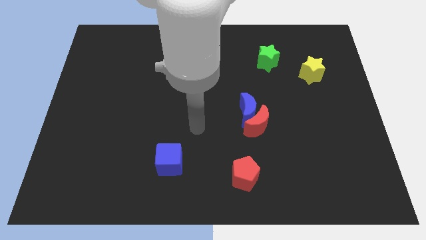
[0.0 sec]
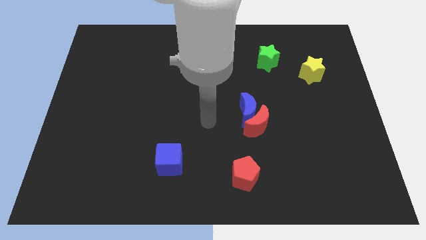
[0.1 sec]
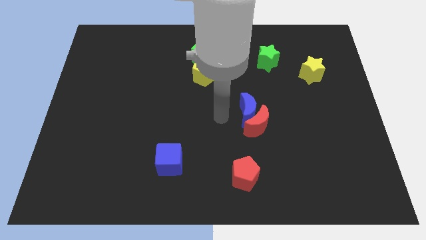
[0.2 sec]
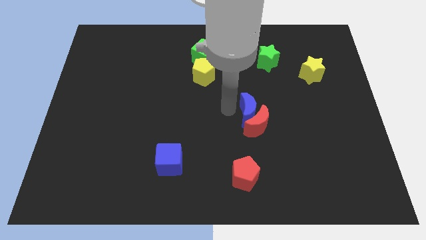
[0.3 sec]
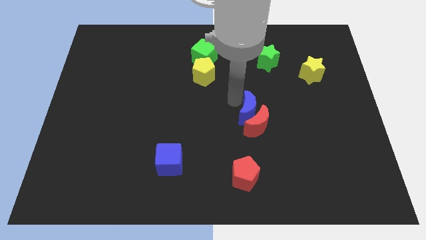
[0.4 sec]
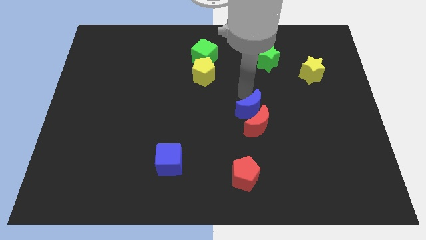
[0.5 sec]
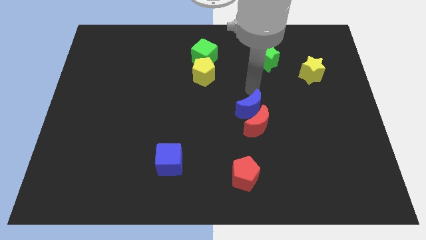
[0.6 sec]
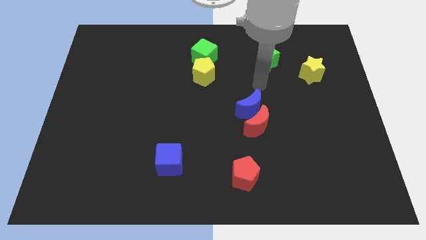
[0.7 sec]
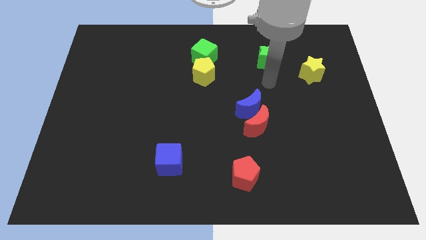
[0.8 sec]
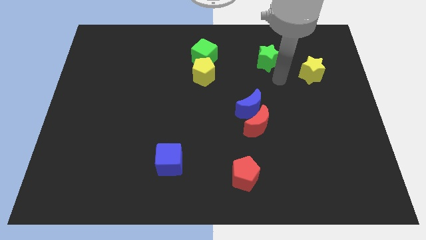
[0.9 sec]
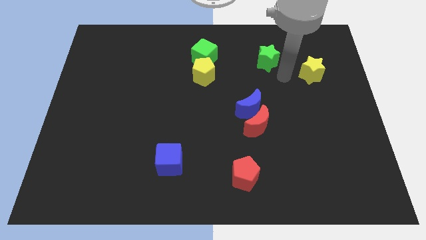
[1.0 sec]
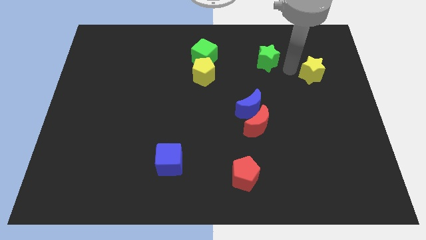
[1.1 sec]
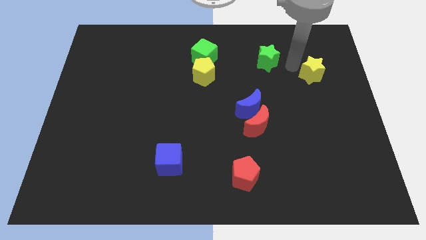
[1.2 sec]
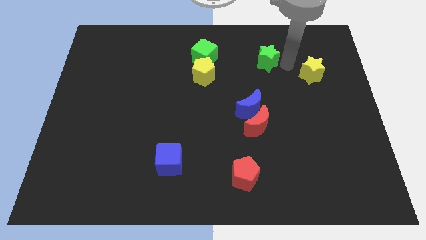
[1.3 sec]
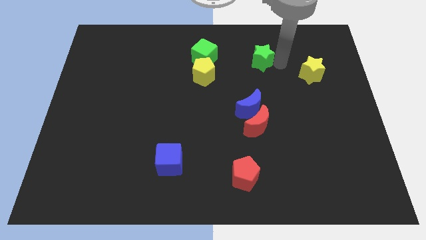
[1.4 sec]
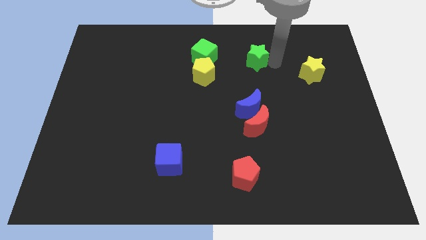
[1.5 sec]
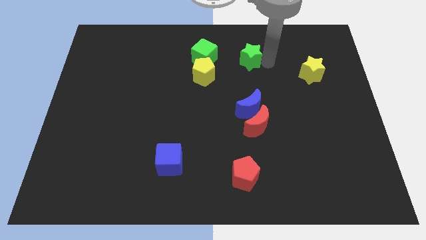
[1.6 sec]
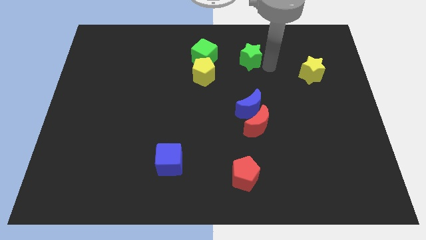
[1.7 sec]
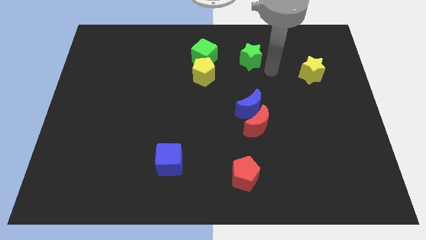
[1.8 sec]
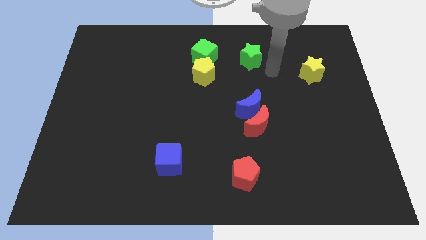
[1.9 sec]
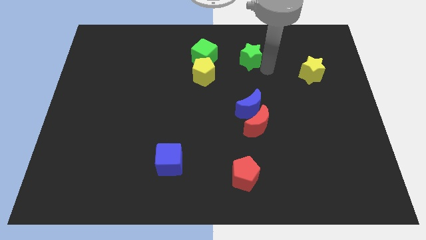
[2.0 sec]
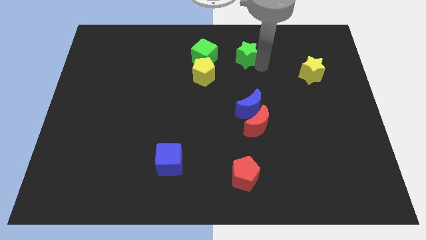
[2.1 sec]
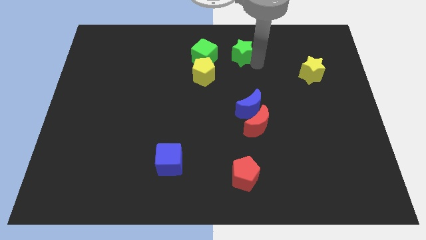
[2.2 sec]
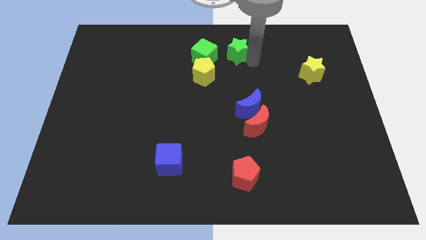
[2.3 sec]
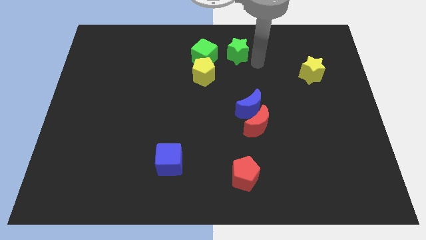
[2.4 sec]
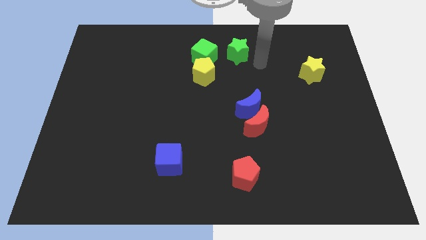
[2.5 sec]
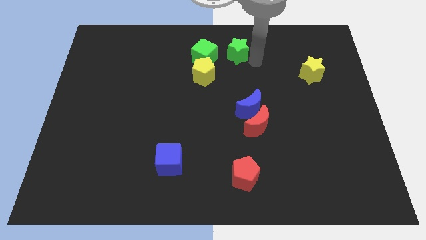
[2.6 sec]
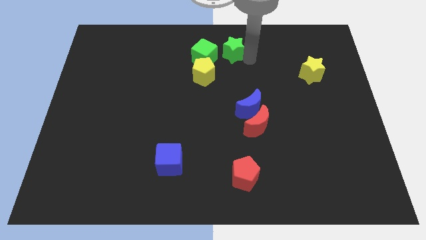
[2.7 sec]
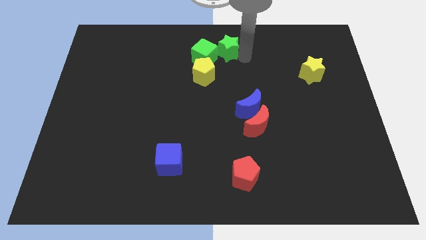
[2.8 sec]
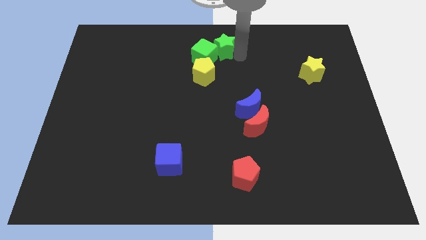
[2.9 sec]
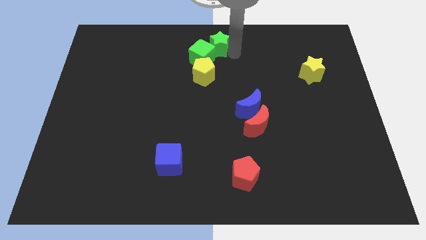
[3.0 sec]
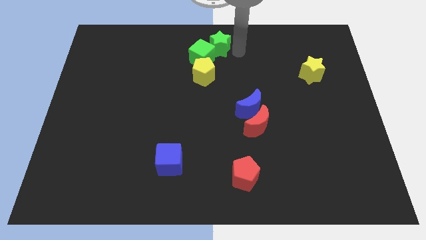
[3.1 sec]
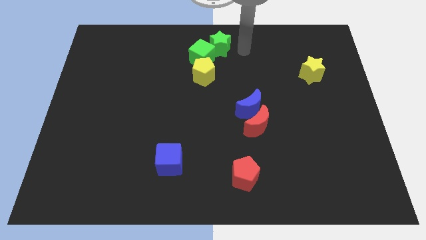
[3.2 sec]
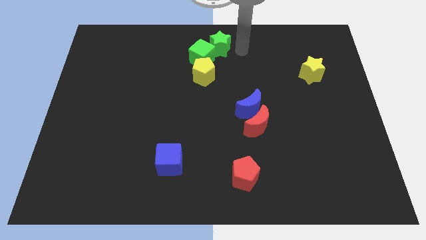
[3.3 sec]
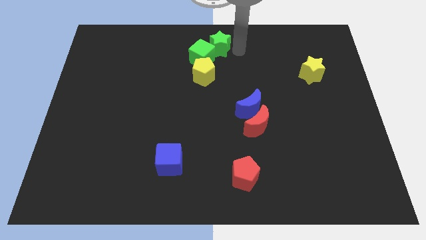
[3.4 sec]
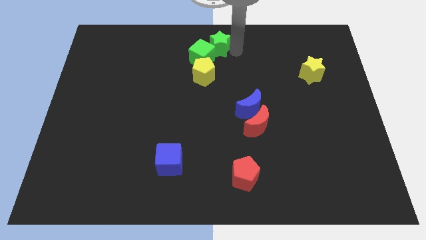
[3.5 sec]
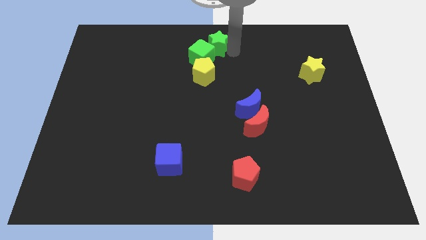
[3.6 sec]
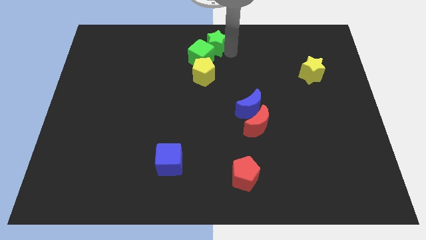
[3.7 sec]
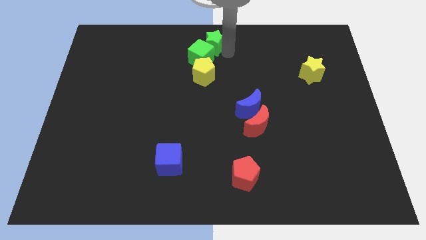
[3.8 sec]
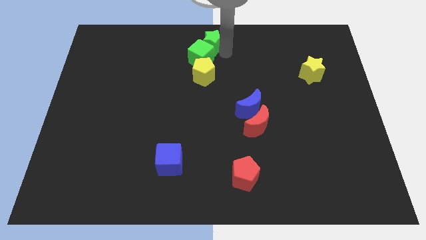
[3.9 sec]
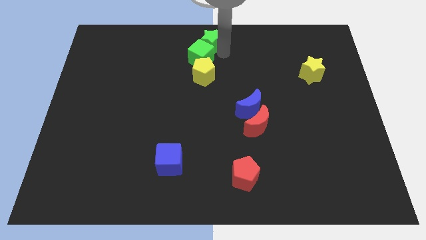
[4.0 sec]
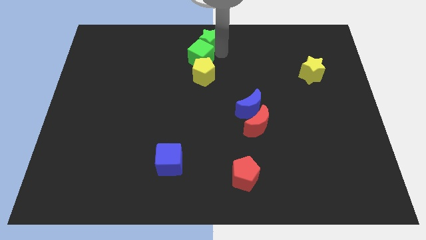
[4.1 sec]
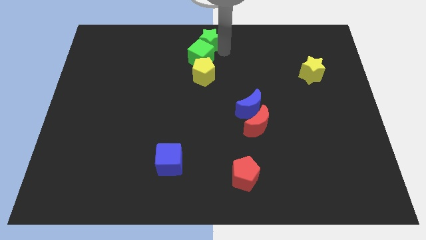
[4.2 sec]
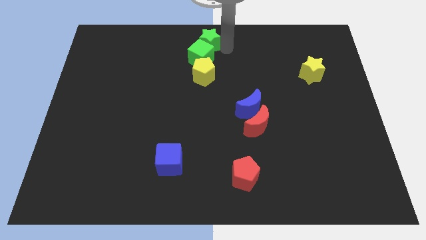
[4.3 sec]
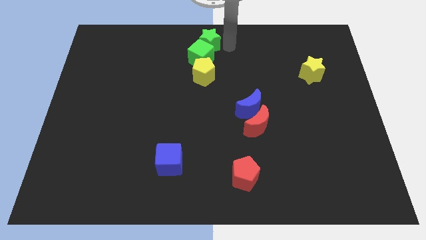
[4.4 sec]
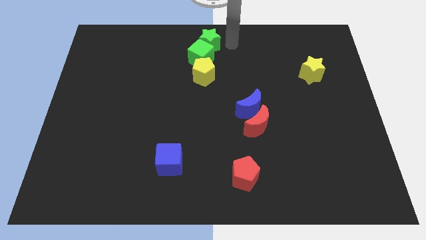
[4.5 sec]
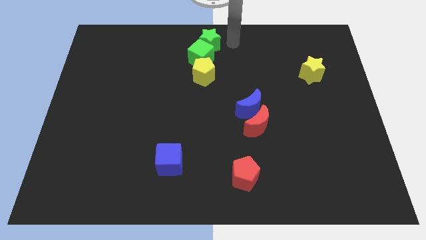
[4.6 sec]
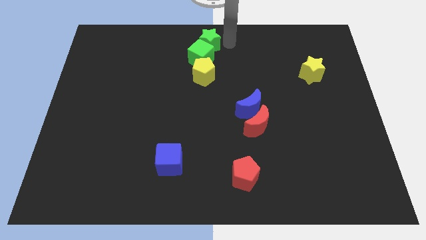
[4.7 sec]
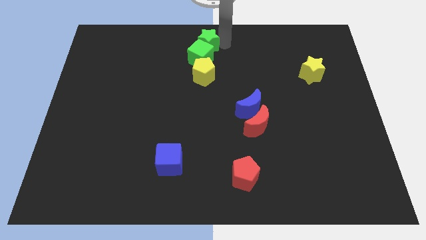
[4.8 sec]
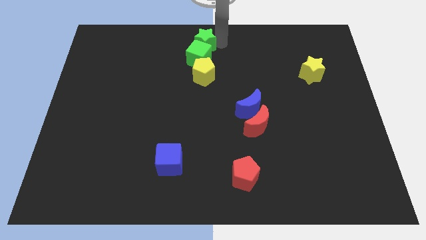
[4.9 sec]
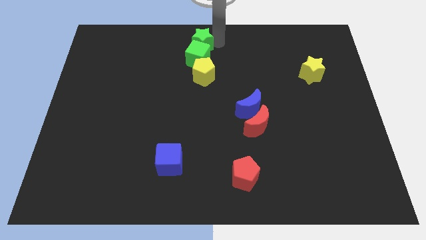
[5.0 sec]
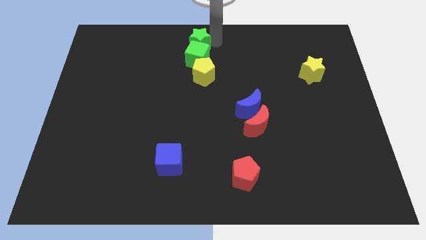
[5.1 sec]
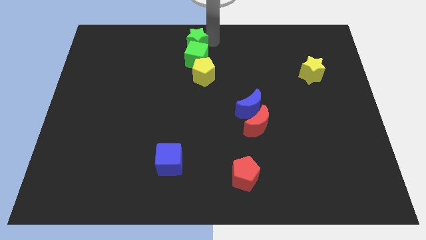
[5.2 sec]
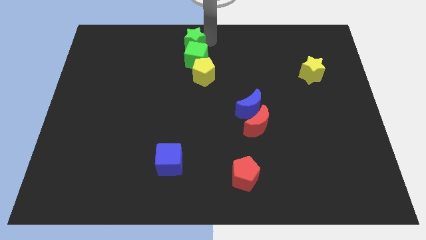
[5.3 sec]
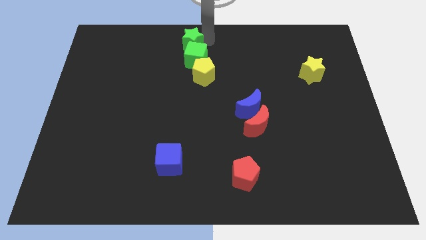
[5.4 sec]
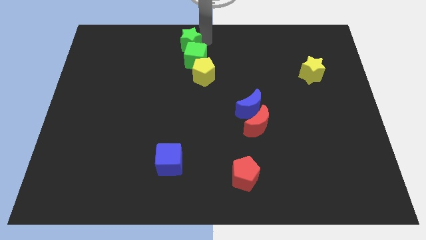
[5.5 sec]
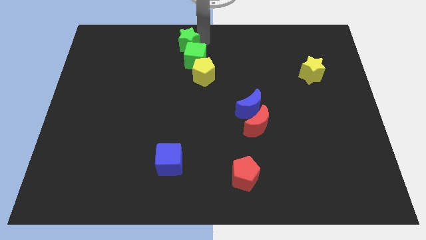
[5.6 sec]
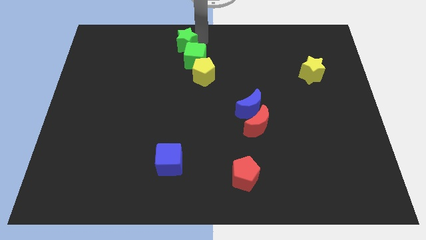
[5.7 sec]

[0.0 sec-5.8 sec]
push the green star left

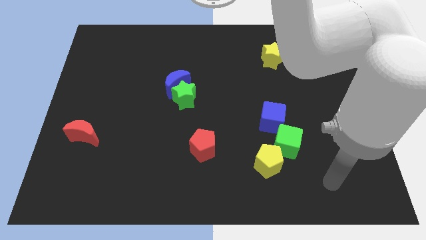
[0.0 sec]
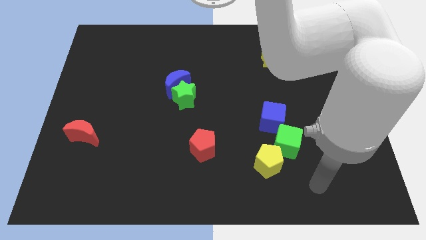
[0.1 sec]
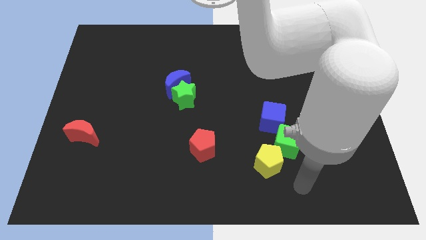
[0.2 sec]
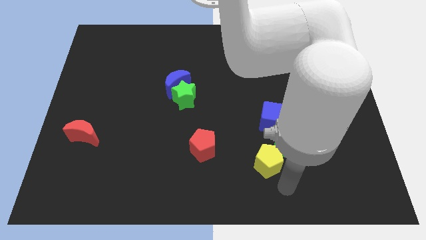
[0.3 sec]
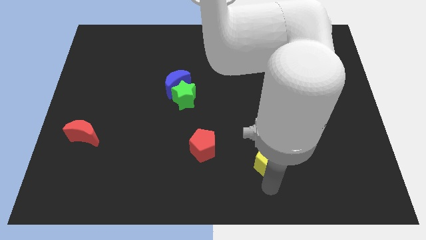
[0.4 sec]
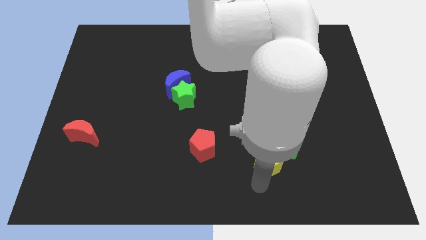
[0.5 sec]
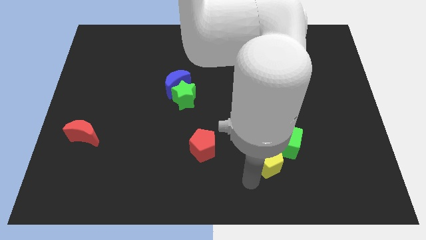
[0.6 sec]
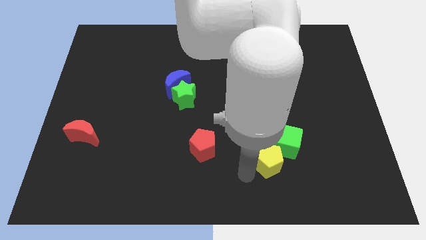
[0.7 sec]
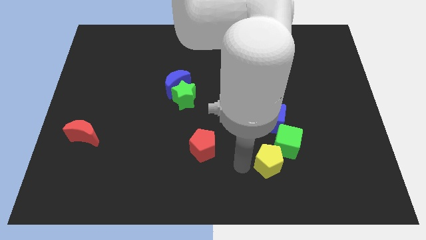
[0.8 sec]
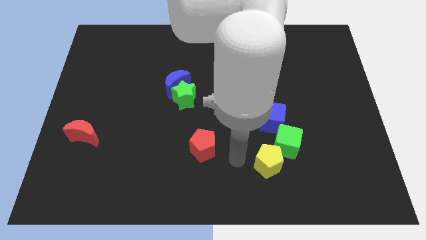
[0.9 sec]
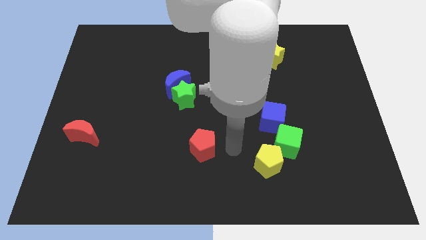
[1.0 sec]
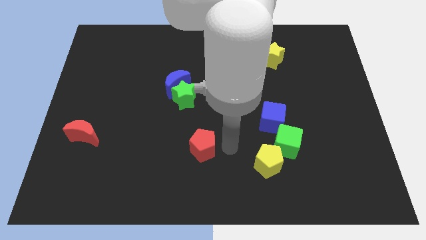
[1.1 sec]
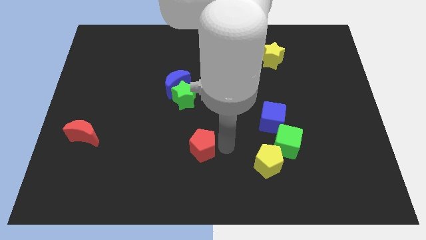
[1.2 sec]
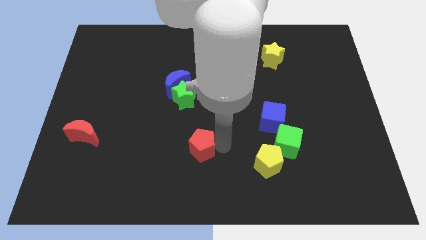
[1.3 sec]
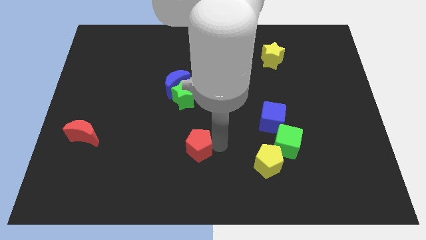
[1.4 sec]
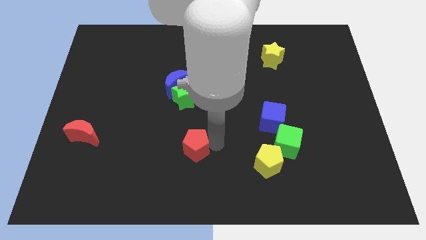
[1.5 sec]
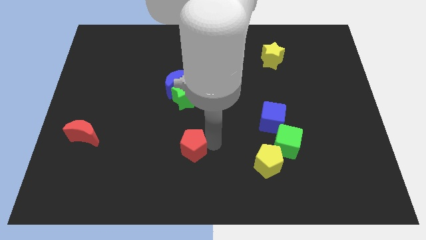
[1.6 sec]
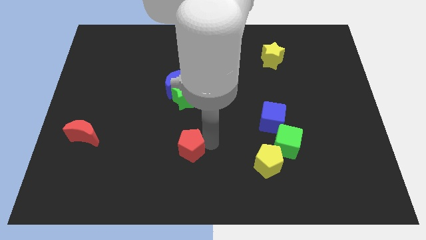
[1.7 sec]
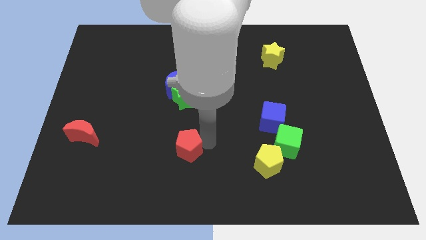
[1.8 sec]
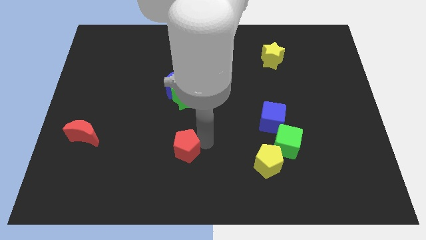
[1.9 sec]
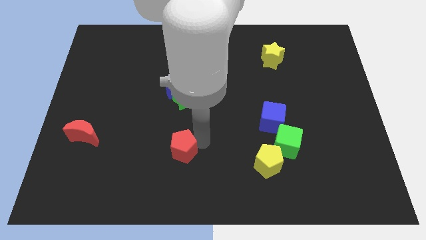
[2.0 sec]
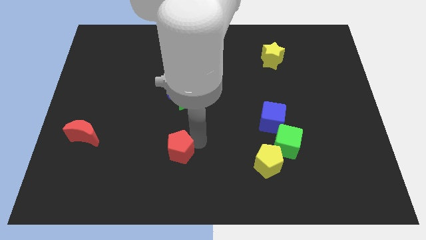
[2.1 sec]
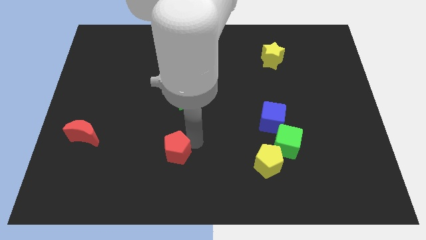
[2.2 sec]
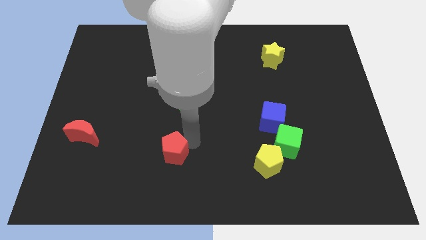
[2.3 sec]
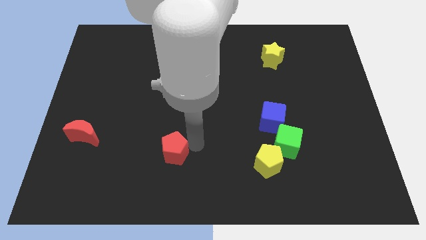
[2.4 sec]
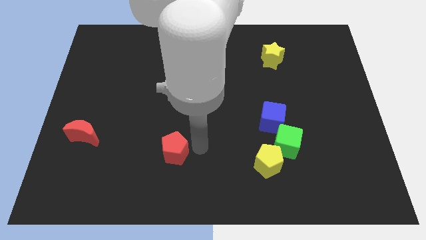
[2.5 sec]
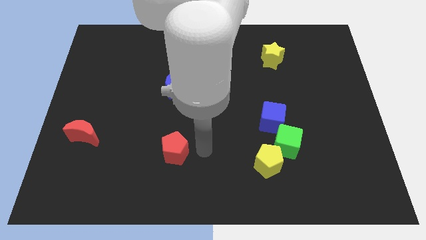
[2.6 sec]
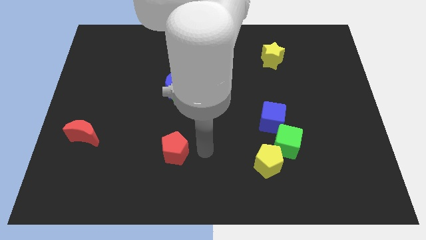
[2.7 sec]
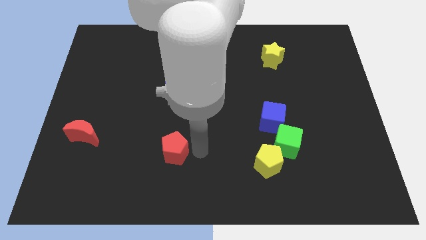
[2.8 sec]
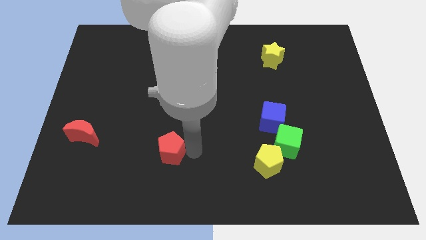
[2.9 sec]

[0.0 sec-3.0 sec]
slide the red pentagon left a bit
